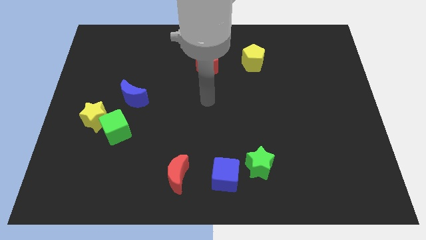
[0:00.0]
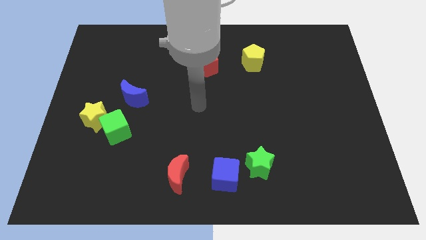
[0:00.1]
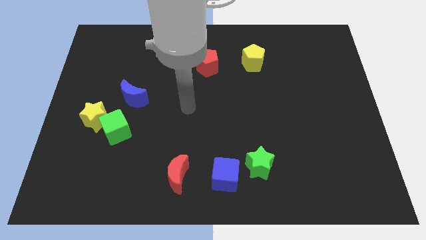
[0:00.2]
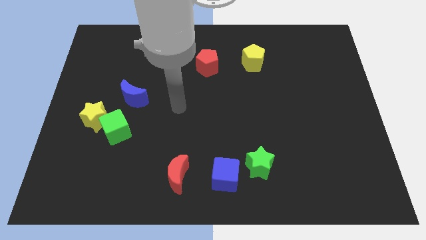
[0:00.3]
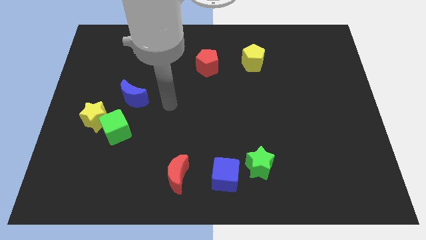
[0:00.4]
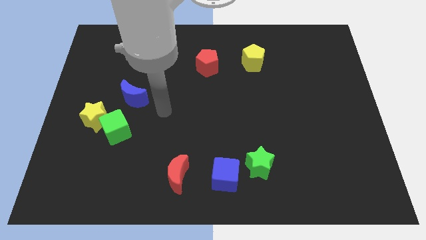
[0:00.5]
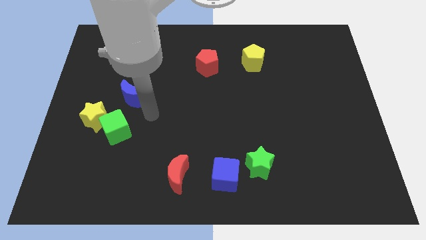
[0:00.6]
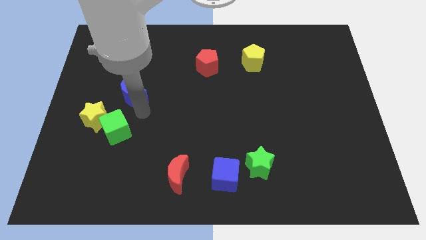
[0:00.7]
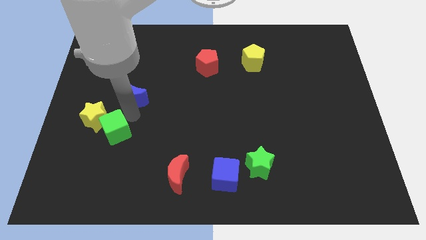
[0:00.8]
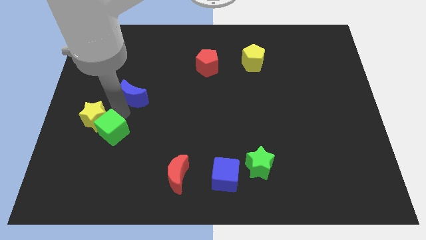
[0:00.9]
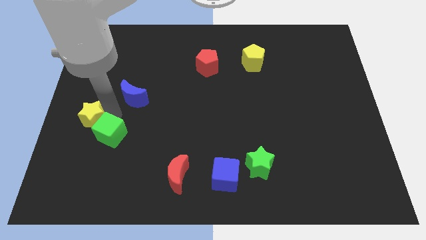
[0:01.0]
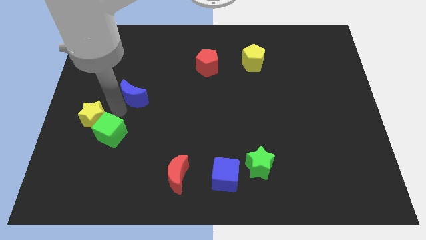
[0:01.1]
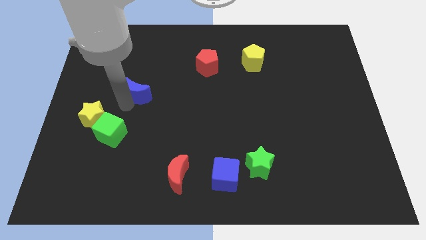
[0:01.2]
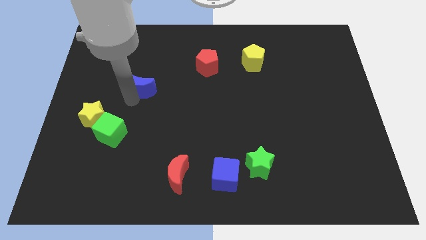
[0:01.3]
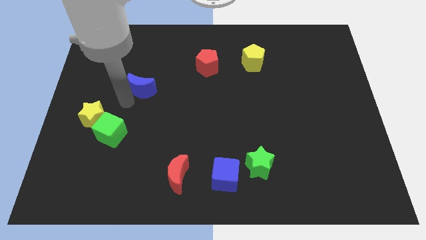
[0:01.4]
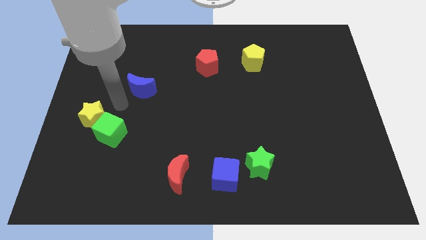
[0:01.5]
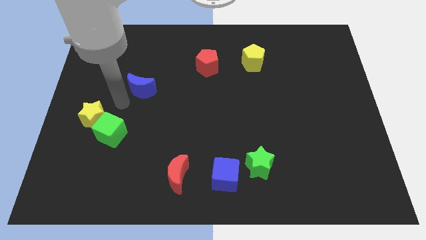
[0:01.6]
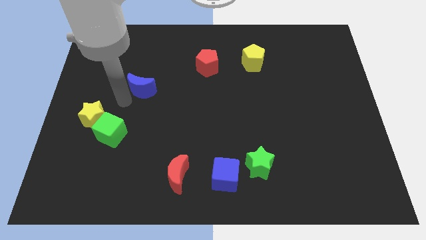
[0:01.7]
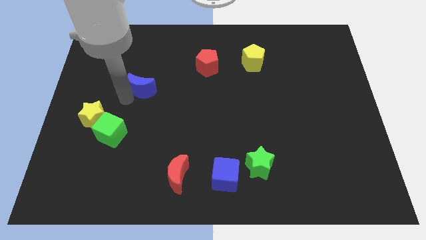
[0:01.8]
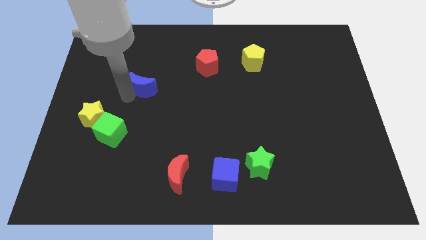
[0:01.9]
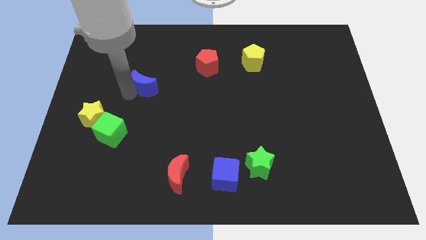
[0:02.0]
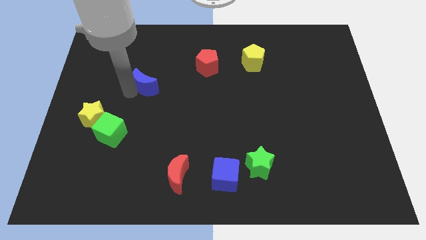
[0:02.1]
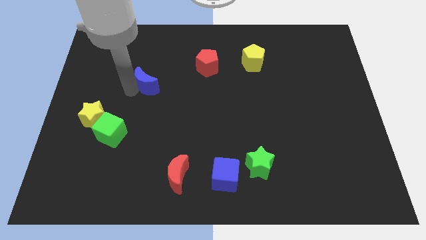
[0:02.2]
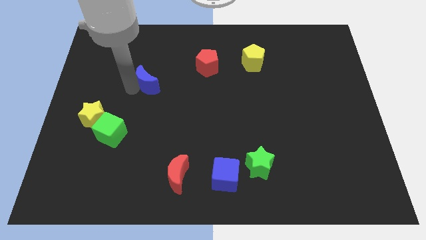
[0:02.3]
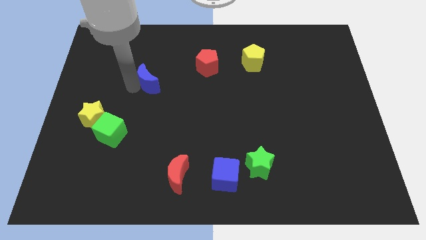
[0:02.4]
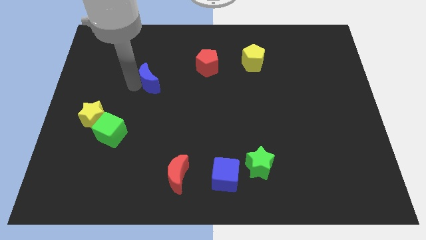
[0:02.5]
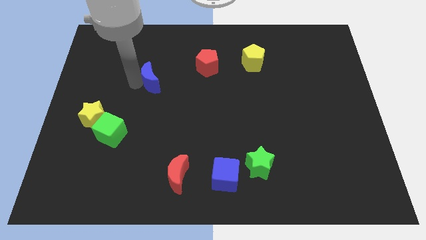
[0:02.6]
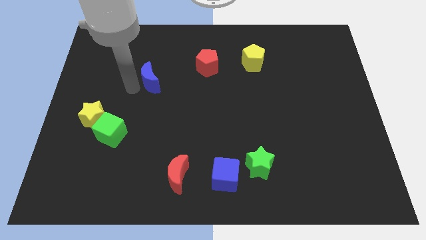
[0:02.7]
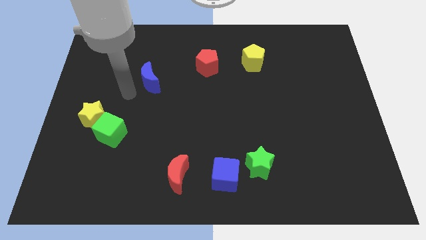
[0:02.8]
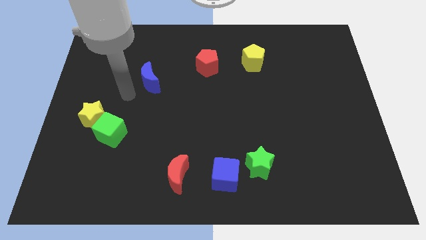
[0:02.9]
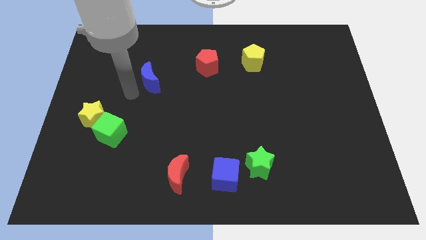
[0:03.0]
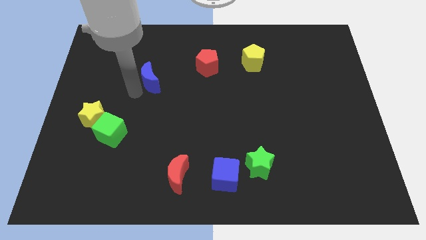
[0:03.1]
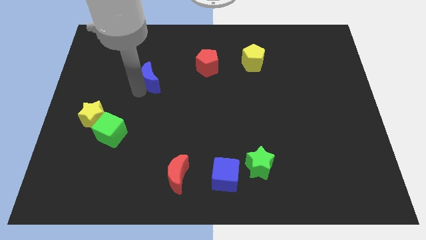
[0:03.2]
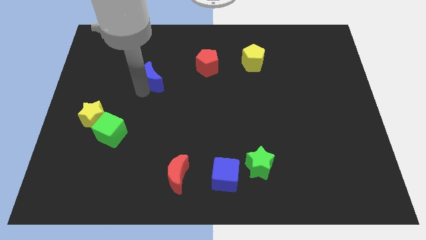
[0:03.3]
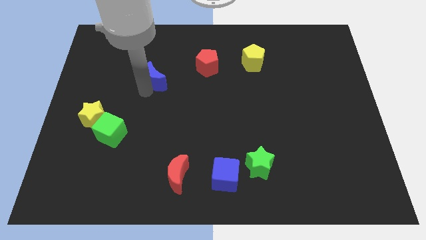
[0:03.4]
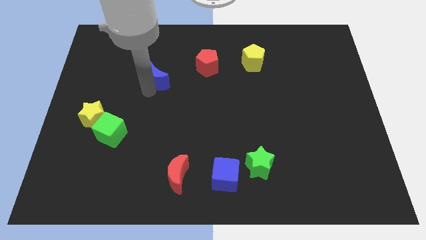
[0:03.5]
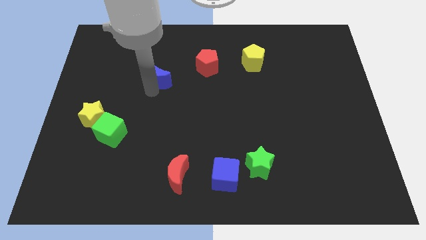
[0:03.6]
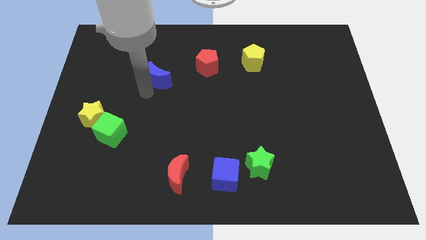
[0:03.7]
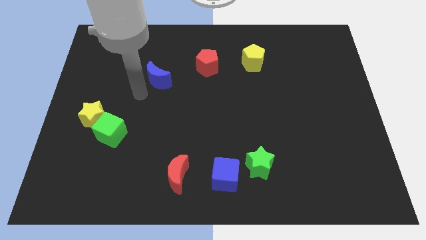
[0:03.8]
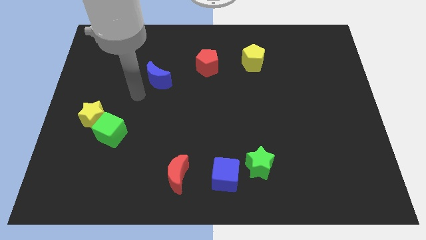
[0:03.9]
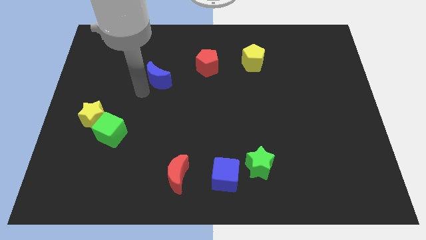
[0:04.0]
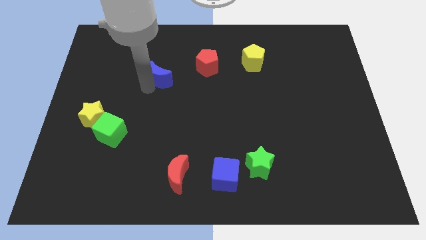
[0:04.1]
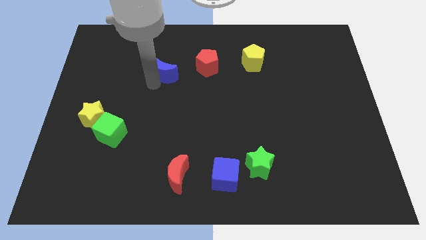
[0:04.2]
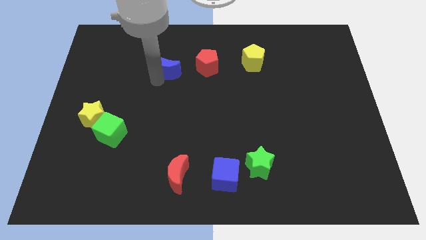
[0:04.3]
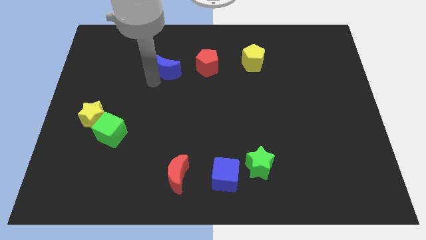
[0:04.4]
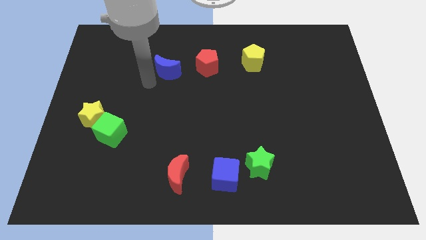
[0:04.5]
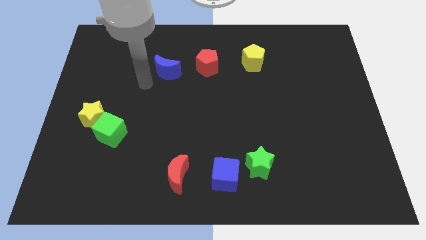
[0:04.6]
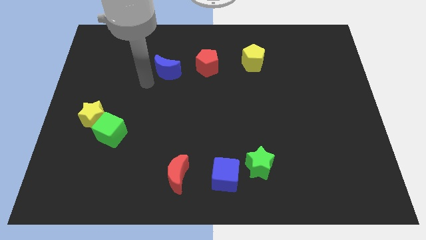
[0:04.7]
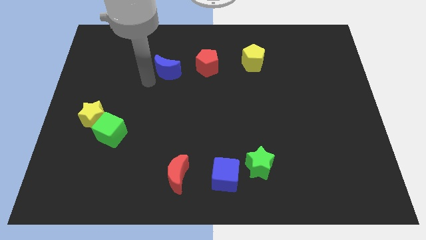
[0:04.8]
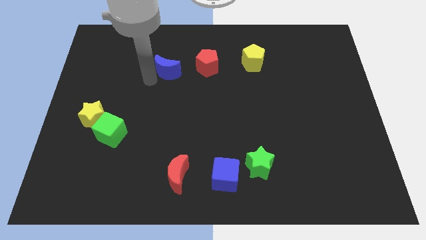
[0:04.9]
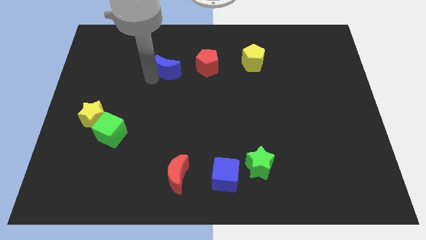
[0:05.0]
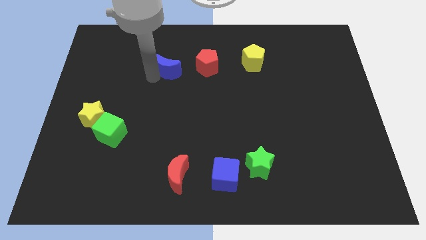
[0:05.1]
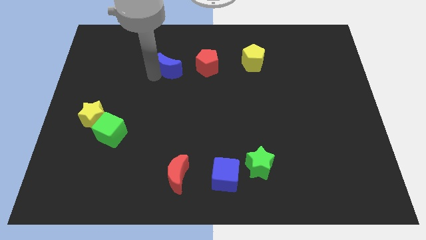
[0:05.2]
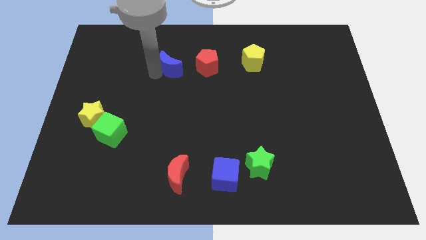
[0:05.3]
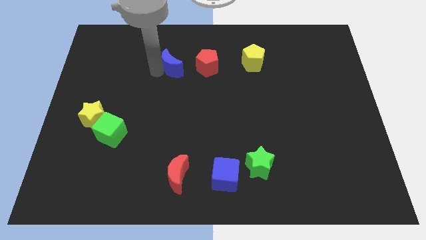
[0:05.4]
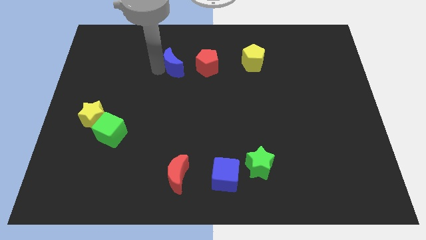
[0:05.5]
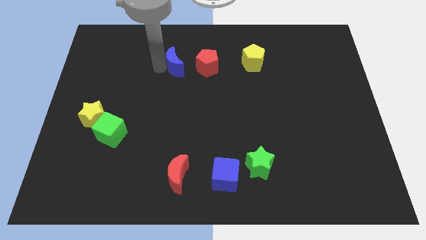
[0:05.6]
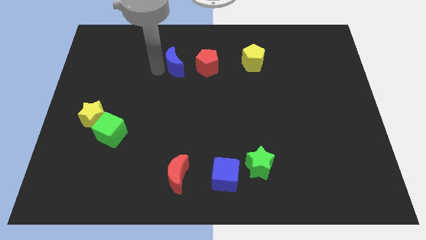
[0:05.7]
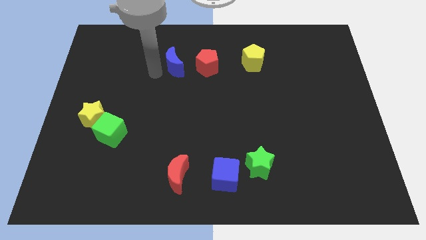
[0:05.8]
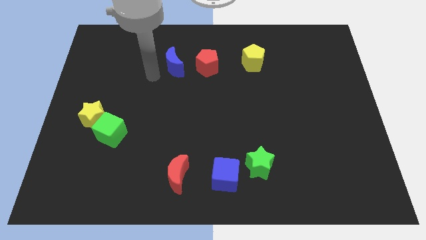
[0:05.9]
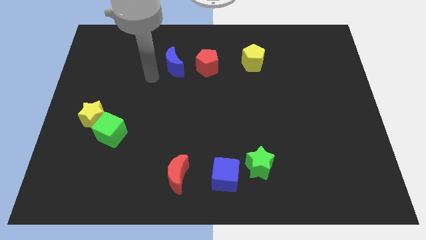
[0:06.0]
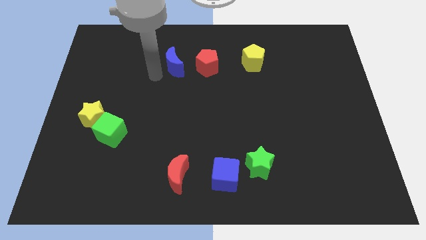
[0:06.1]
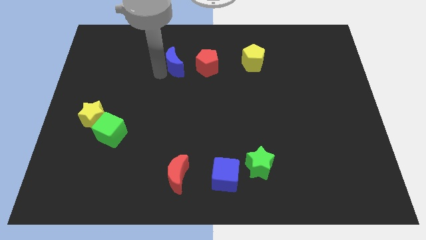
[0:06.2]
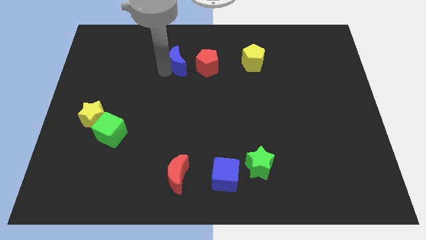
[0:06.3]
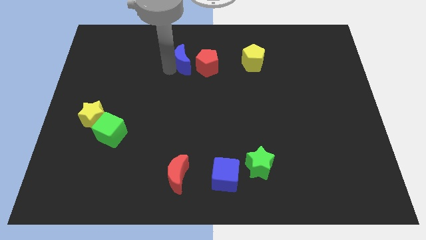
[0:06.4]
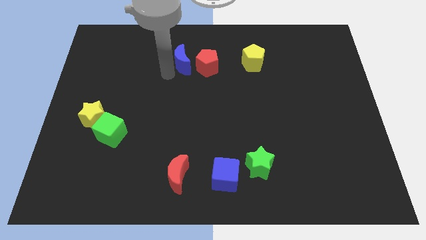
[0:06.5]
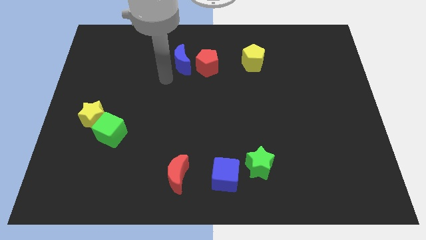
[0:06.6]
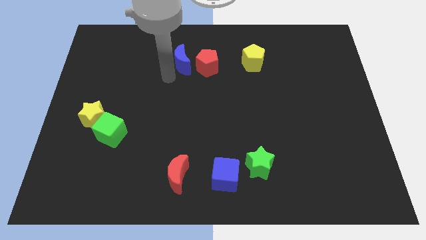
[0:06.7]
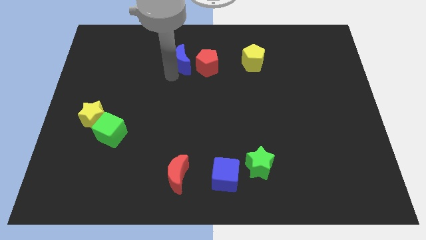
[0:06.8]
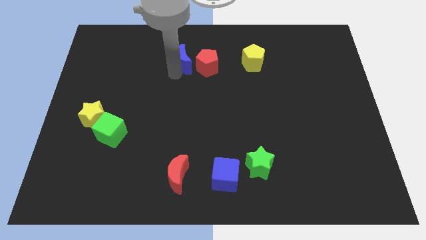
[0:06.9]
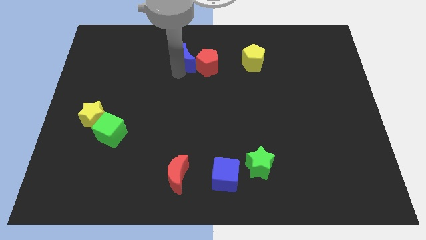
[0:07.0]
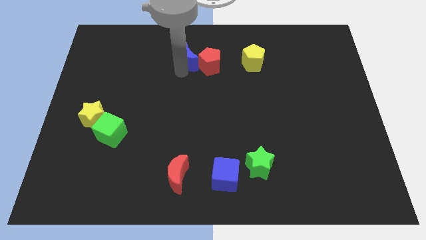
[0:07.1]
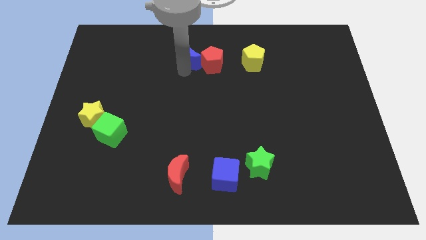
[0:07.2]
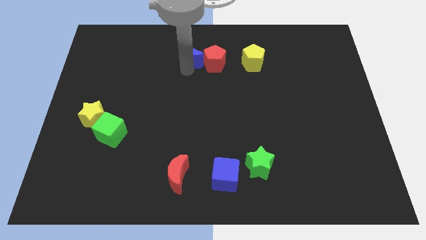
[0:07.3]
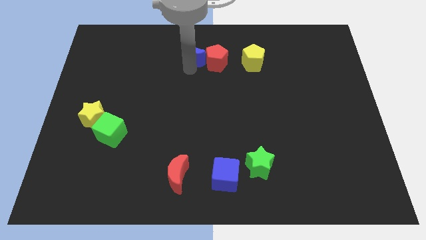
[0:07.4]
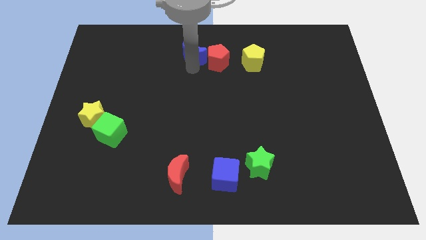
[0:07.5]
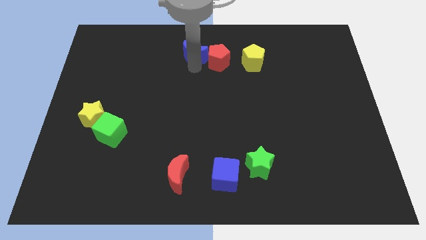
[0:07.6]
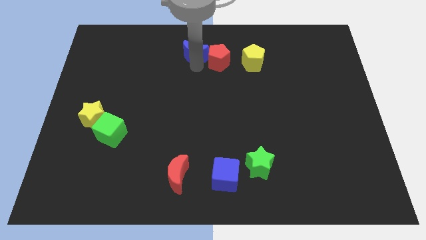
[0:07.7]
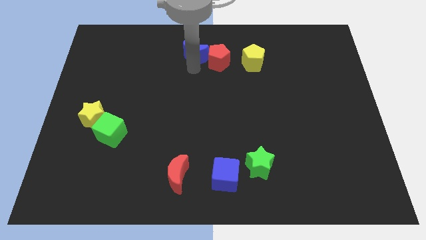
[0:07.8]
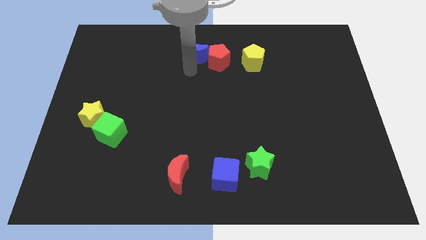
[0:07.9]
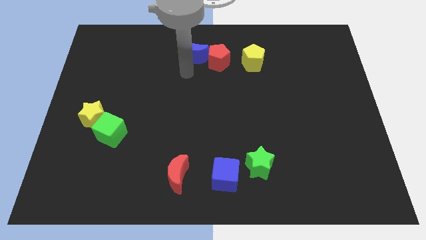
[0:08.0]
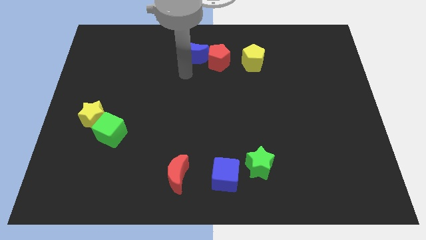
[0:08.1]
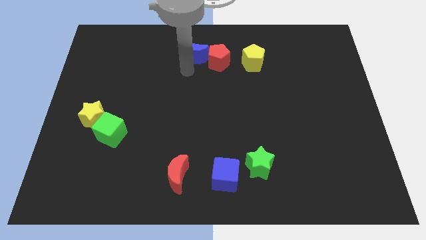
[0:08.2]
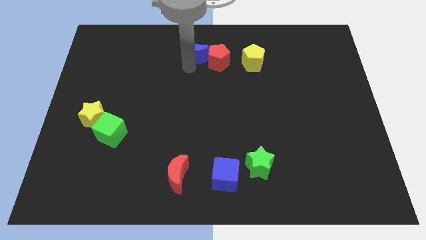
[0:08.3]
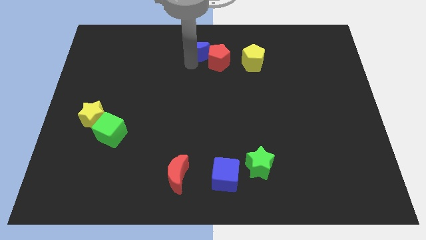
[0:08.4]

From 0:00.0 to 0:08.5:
put the blue moon to the top side
